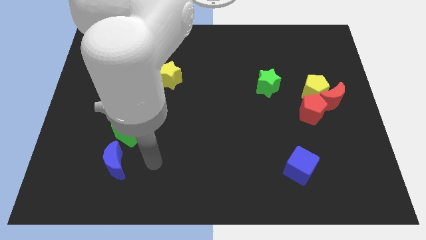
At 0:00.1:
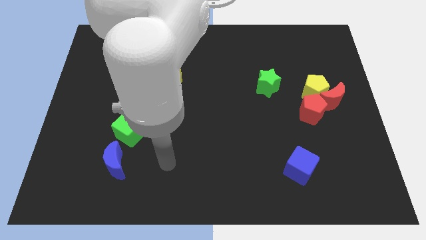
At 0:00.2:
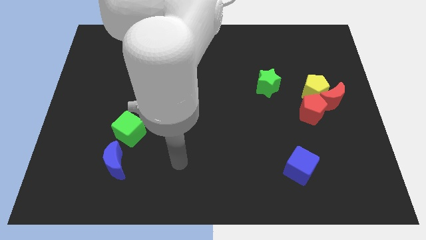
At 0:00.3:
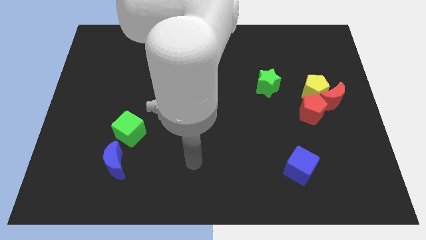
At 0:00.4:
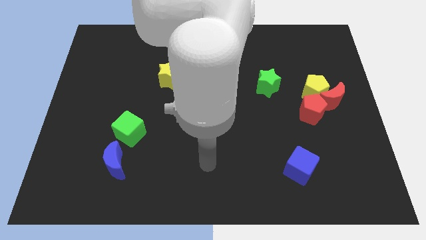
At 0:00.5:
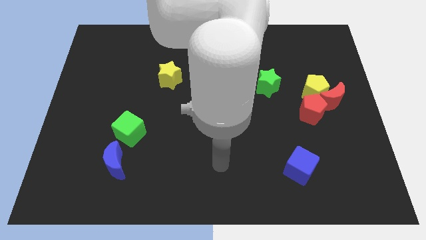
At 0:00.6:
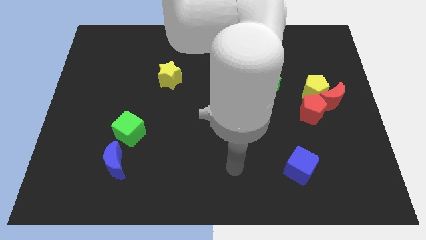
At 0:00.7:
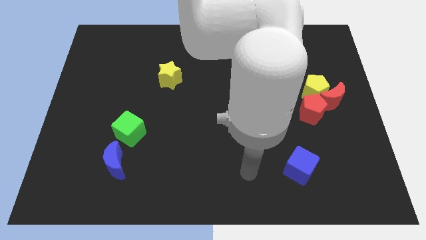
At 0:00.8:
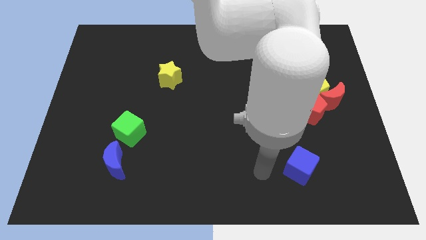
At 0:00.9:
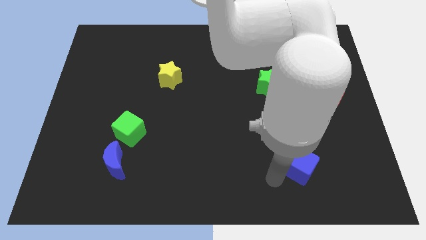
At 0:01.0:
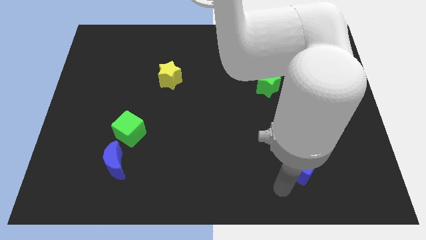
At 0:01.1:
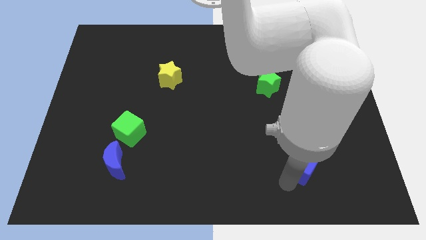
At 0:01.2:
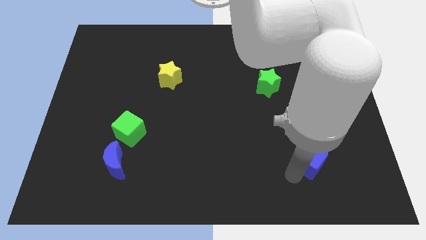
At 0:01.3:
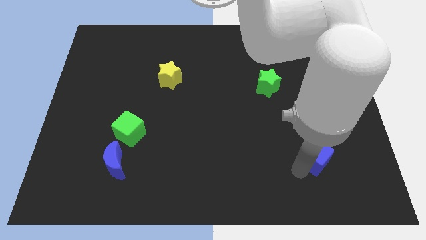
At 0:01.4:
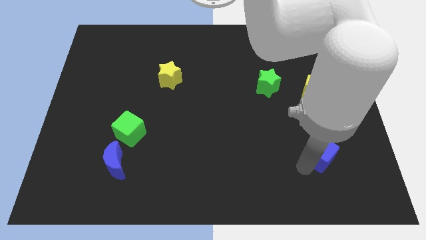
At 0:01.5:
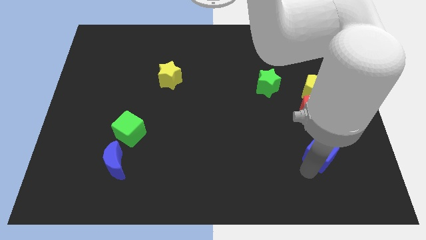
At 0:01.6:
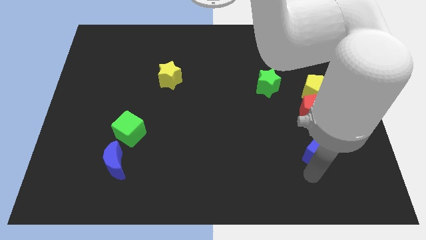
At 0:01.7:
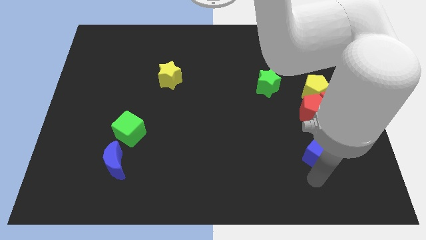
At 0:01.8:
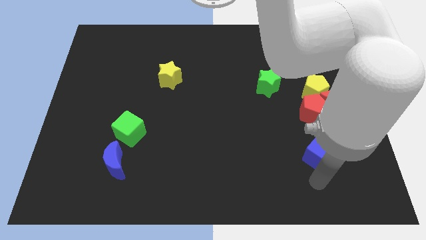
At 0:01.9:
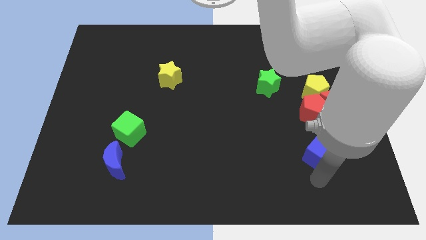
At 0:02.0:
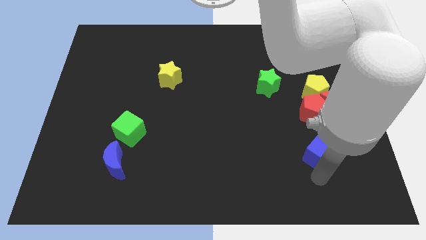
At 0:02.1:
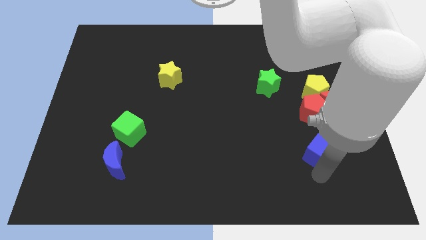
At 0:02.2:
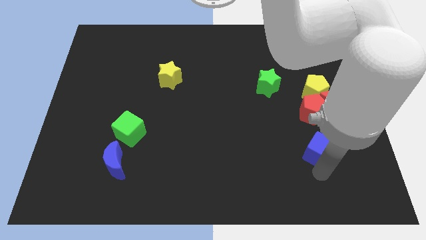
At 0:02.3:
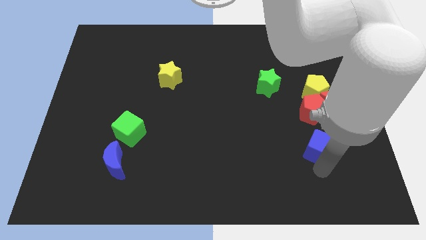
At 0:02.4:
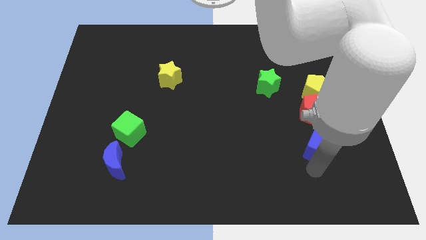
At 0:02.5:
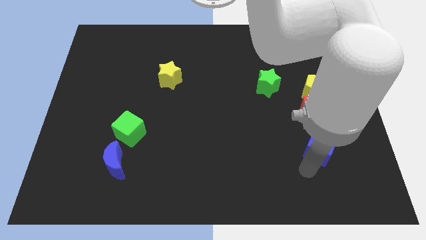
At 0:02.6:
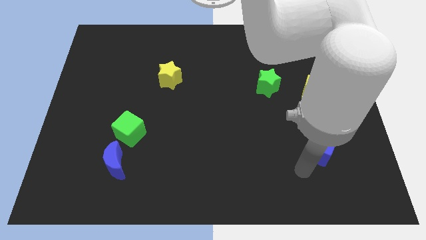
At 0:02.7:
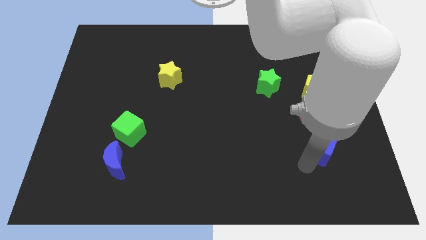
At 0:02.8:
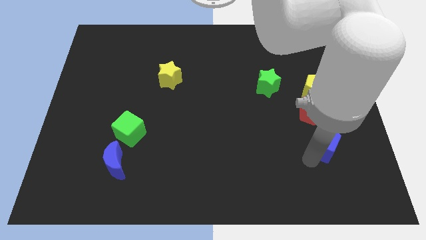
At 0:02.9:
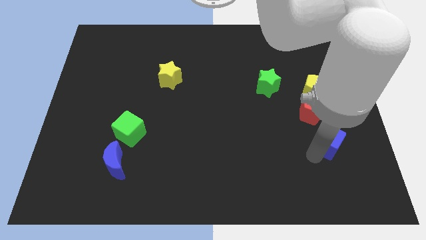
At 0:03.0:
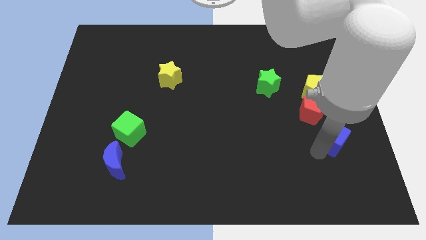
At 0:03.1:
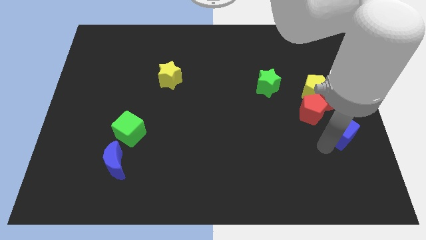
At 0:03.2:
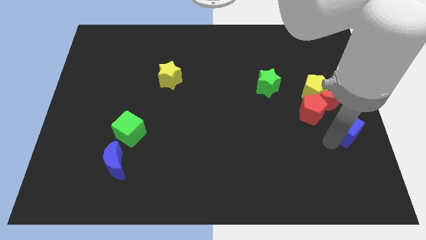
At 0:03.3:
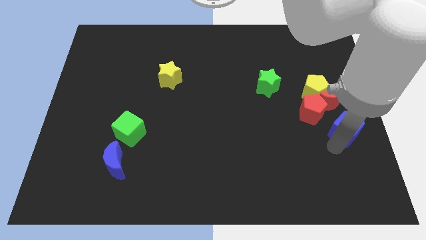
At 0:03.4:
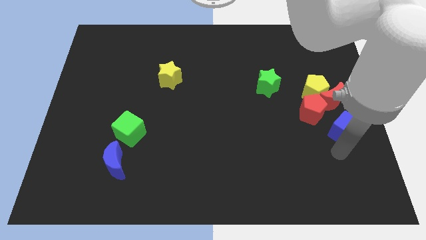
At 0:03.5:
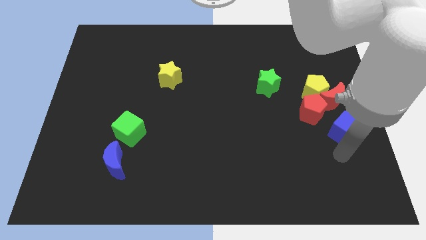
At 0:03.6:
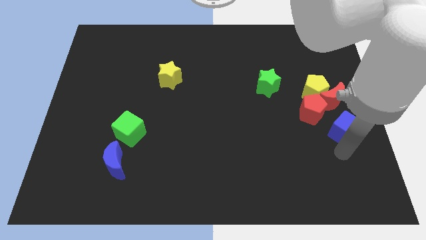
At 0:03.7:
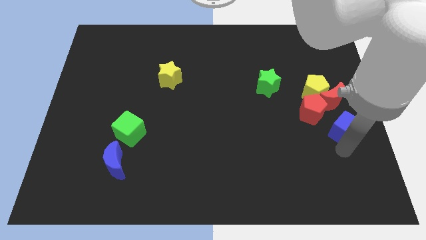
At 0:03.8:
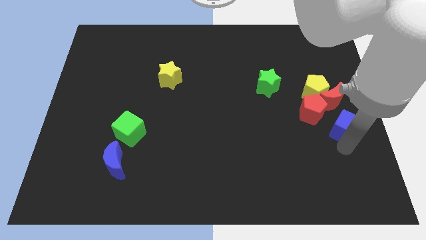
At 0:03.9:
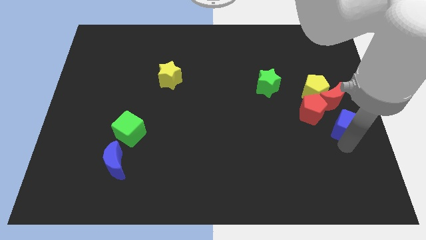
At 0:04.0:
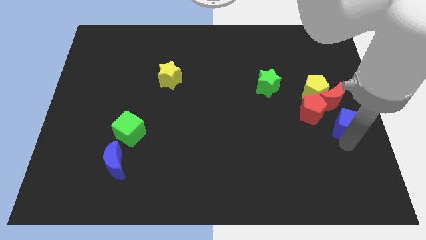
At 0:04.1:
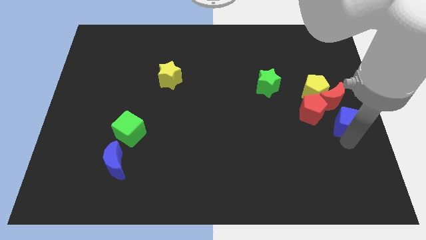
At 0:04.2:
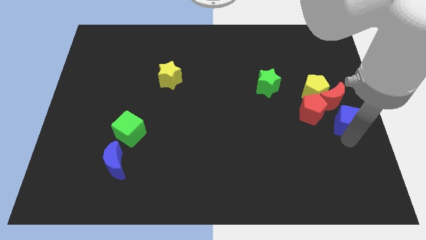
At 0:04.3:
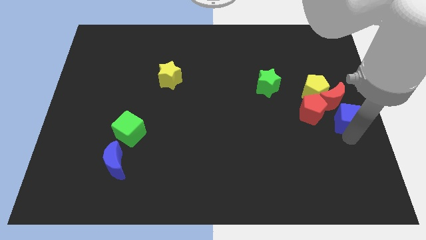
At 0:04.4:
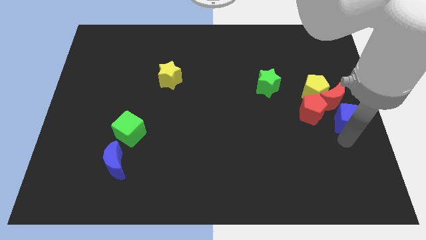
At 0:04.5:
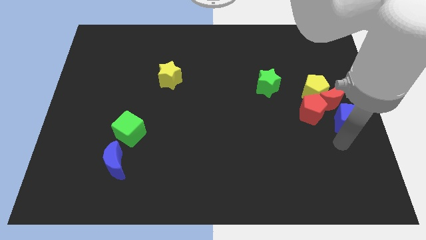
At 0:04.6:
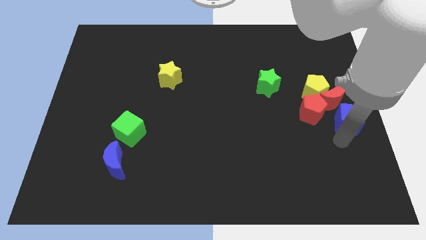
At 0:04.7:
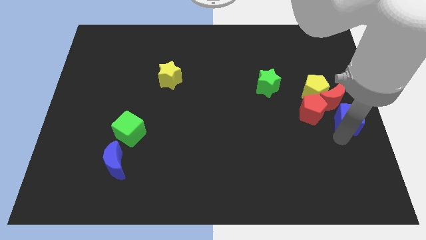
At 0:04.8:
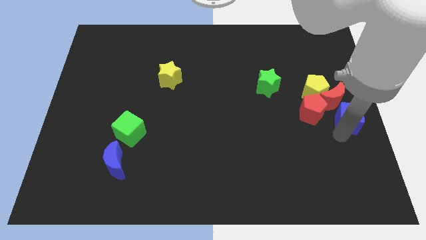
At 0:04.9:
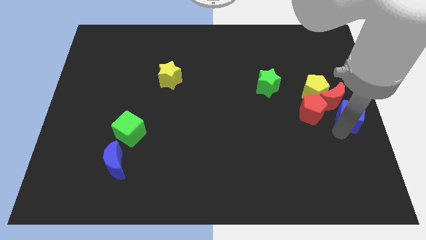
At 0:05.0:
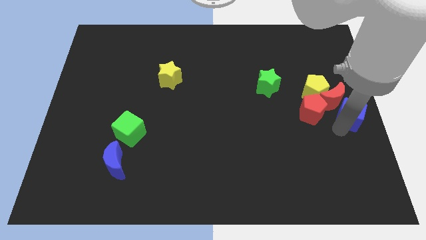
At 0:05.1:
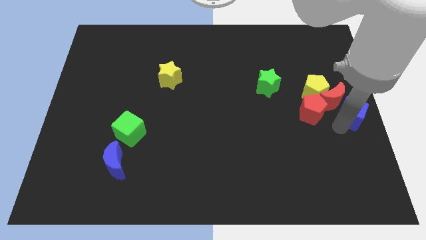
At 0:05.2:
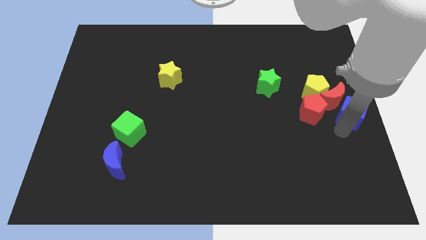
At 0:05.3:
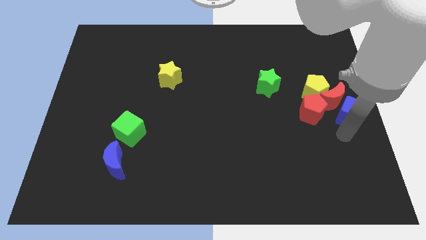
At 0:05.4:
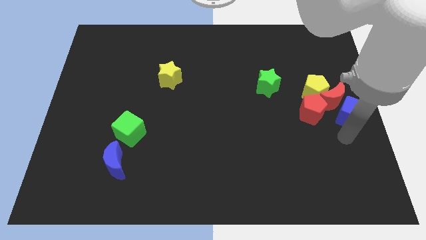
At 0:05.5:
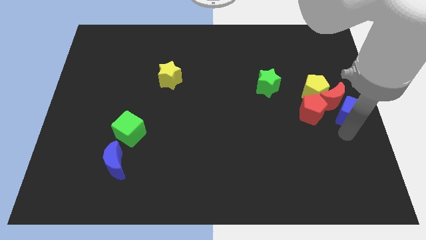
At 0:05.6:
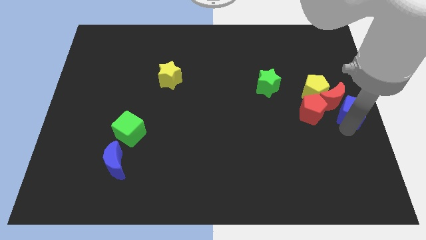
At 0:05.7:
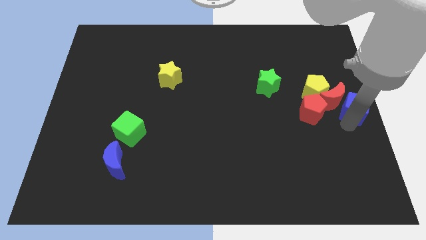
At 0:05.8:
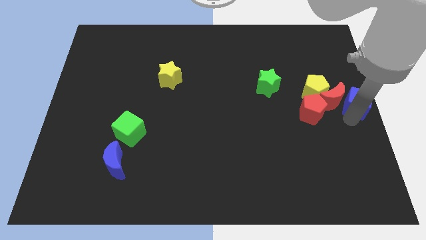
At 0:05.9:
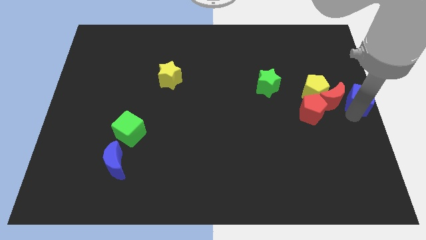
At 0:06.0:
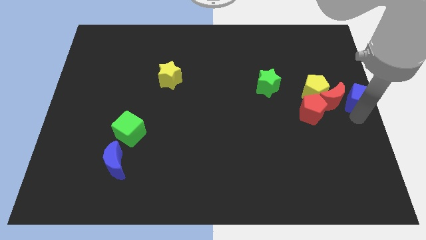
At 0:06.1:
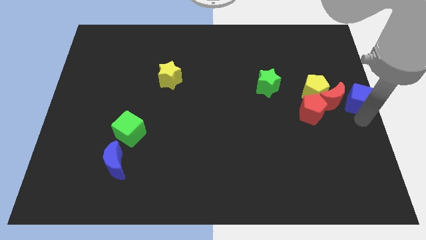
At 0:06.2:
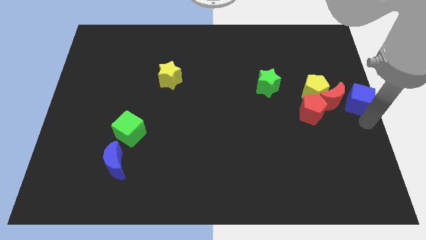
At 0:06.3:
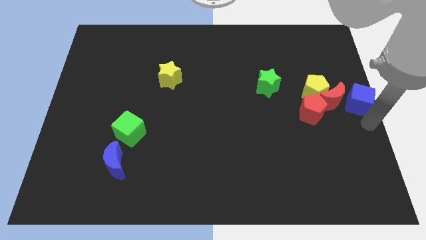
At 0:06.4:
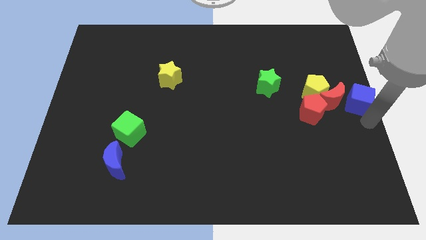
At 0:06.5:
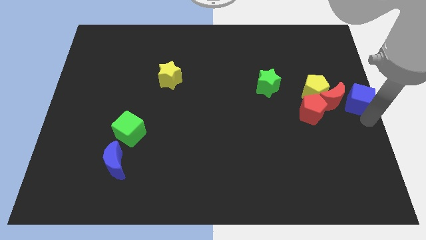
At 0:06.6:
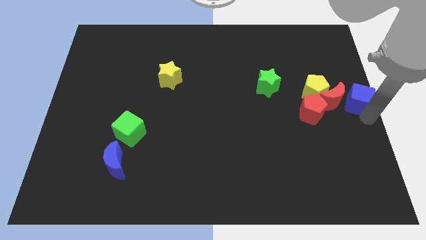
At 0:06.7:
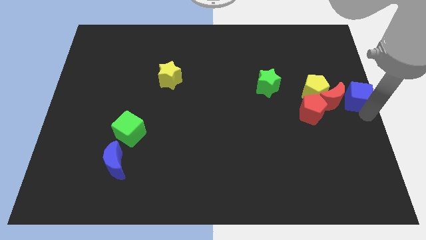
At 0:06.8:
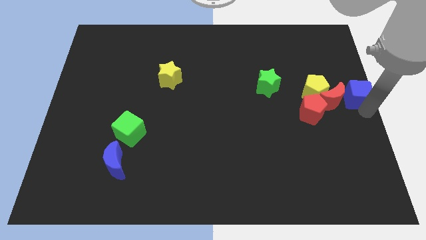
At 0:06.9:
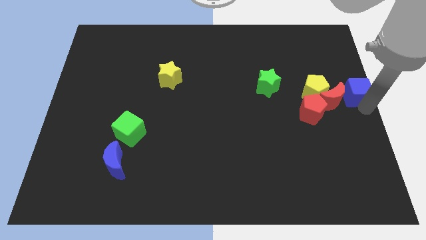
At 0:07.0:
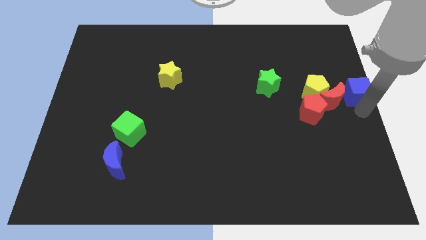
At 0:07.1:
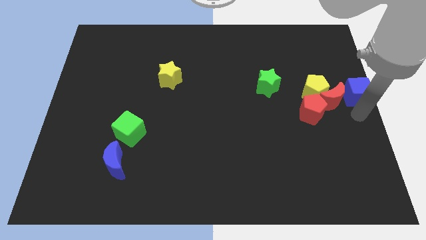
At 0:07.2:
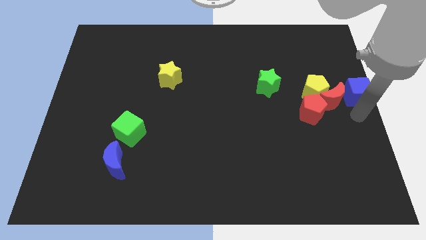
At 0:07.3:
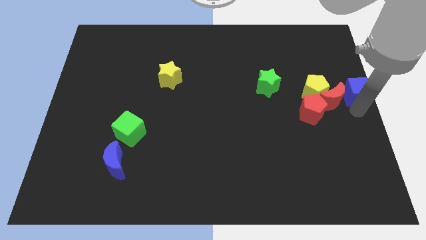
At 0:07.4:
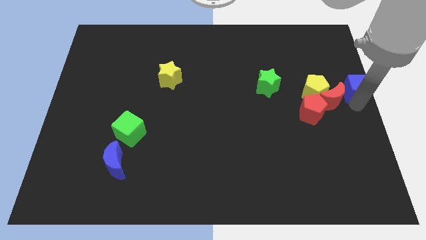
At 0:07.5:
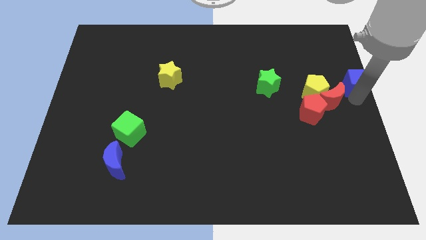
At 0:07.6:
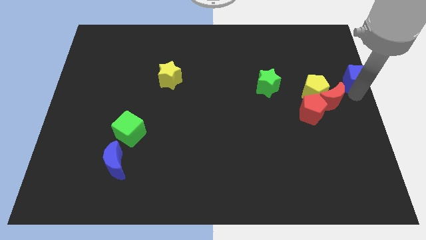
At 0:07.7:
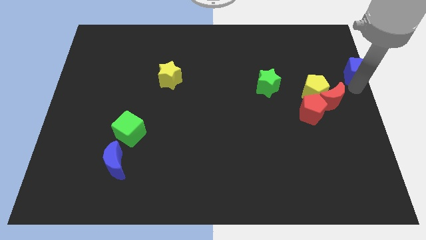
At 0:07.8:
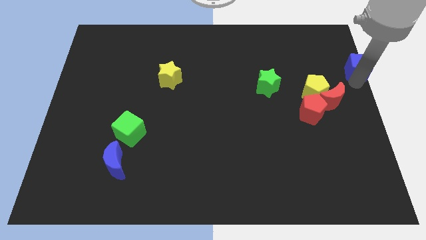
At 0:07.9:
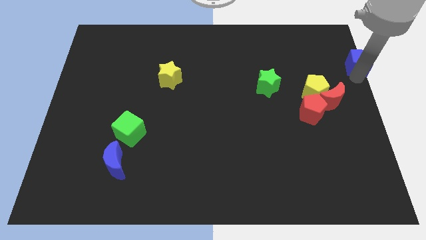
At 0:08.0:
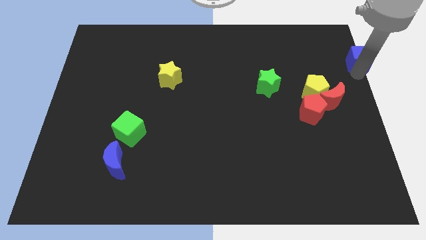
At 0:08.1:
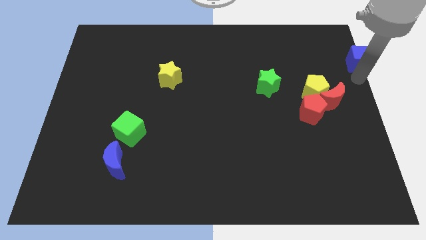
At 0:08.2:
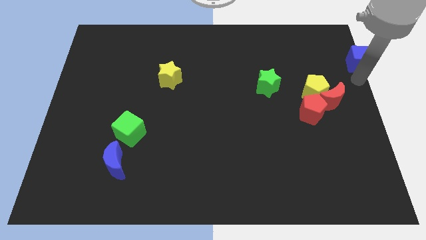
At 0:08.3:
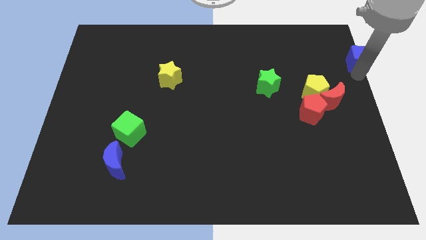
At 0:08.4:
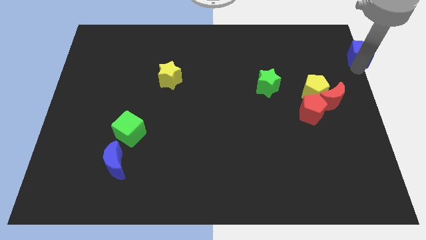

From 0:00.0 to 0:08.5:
put the blue cube to the top right
